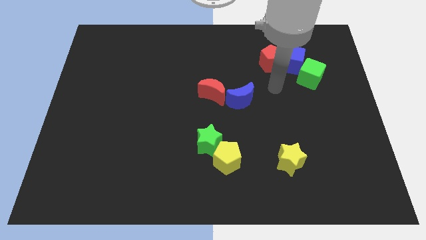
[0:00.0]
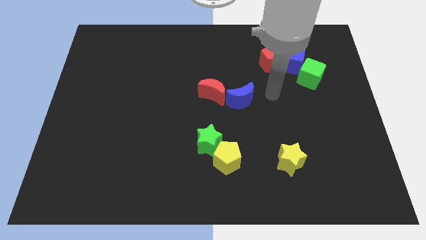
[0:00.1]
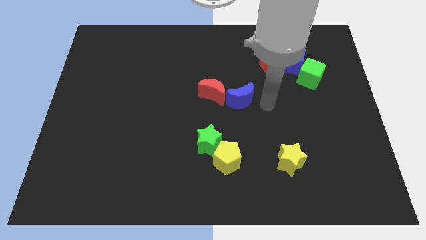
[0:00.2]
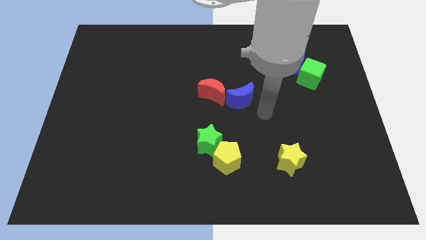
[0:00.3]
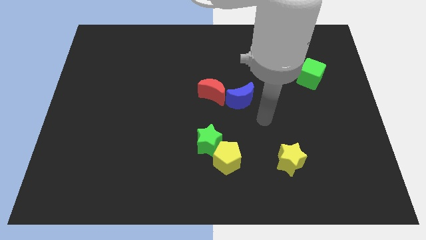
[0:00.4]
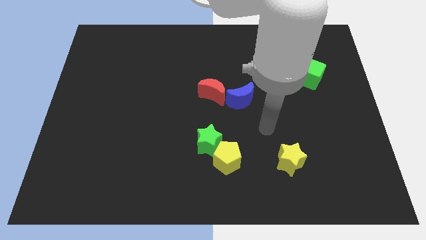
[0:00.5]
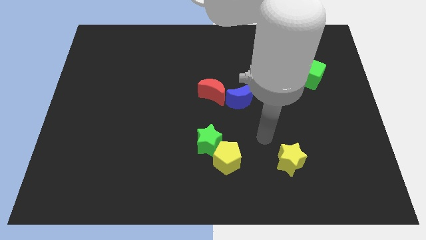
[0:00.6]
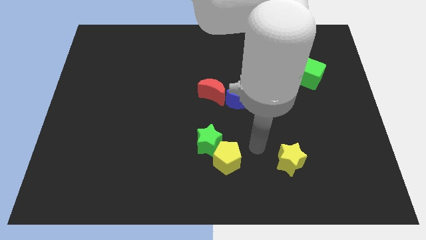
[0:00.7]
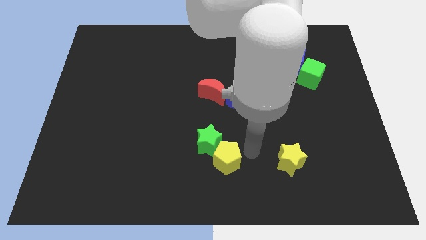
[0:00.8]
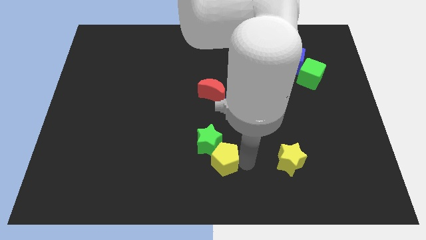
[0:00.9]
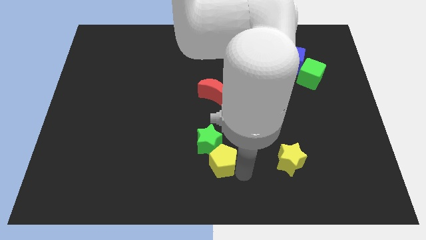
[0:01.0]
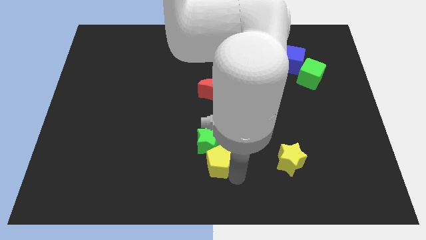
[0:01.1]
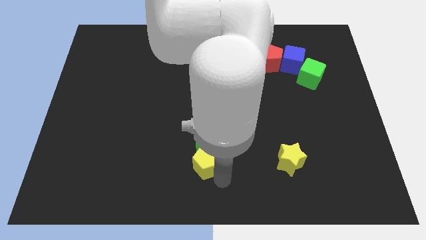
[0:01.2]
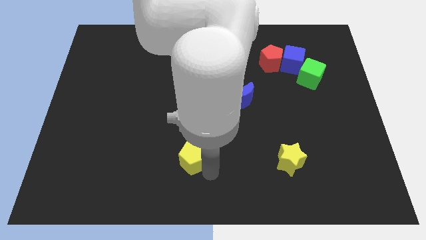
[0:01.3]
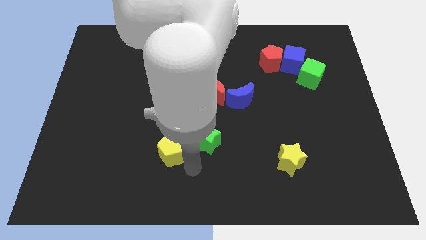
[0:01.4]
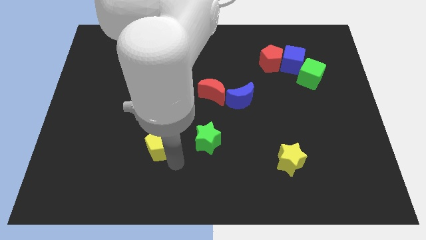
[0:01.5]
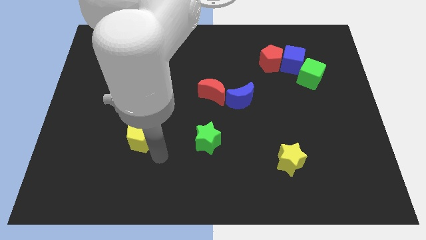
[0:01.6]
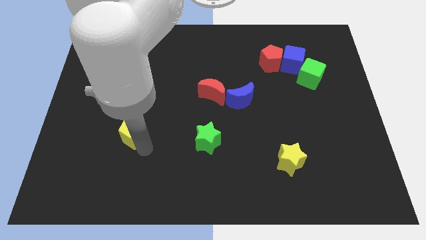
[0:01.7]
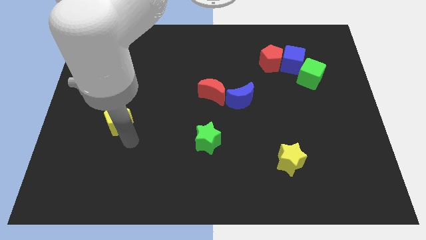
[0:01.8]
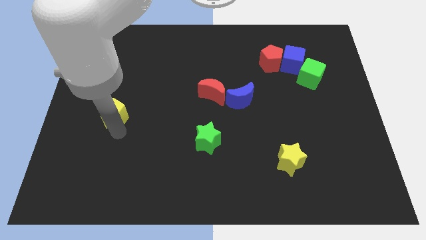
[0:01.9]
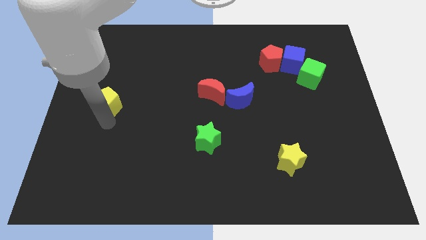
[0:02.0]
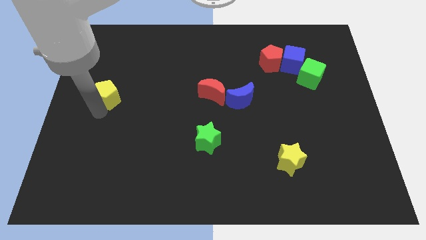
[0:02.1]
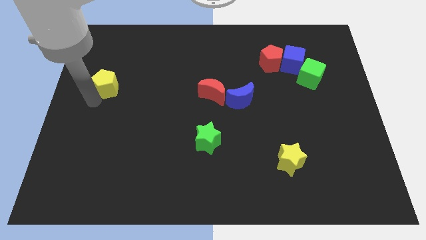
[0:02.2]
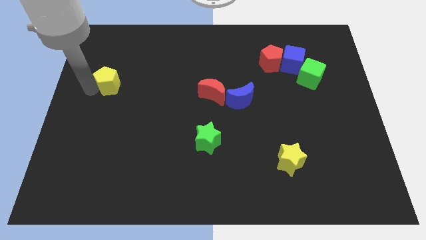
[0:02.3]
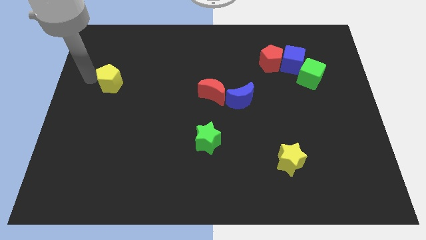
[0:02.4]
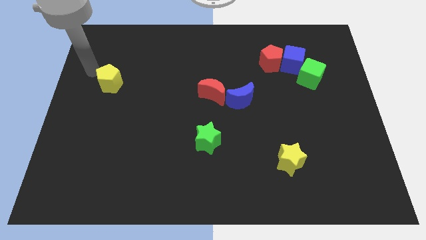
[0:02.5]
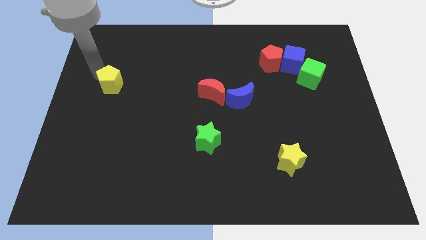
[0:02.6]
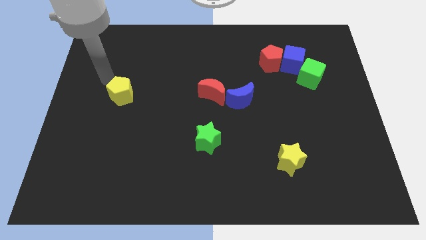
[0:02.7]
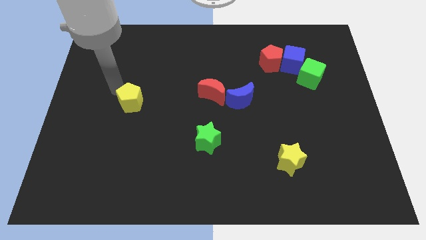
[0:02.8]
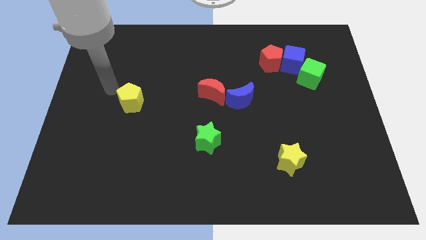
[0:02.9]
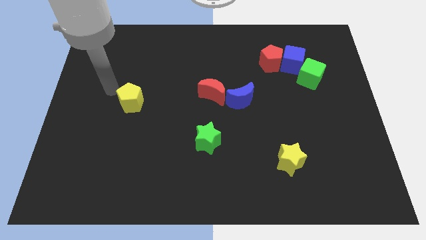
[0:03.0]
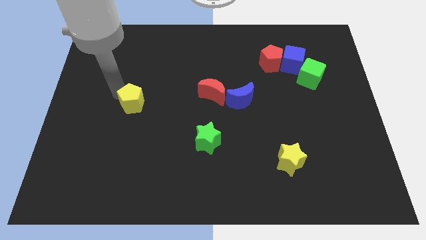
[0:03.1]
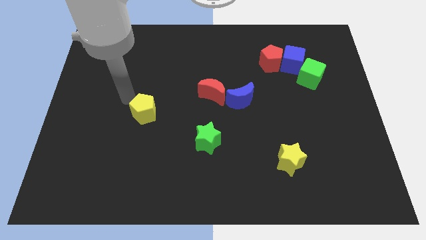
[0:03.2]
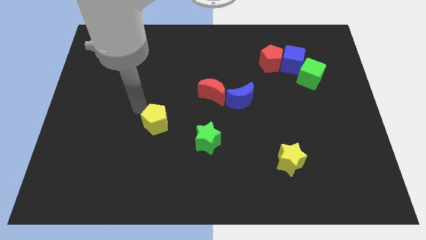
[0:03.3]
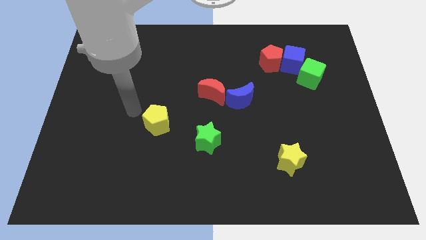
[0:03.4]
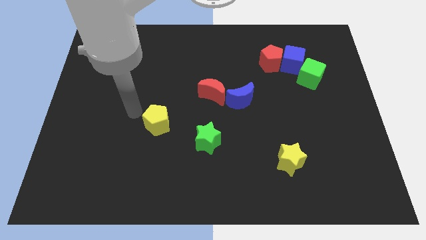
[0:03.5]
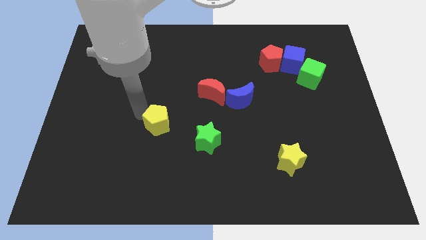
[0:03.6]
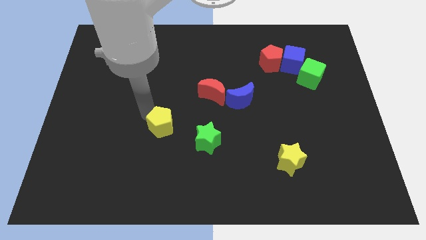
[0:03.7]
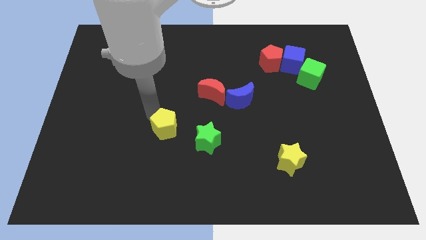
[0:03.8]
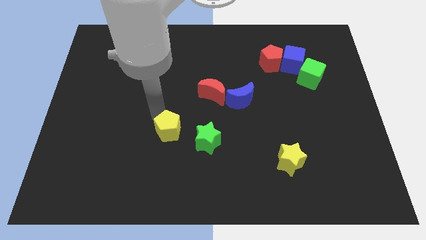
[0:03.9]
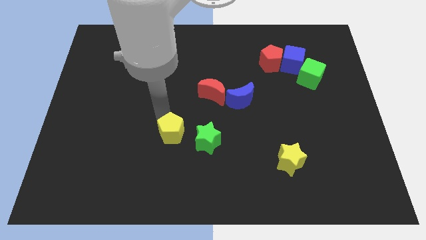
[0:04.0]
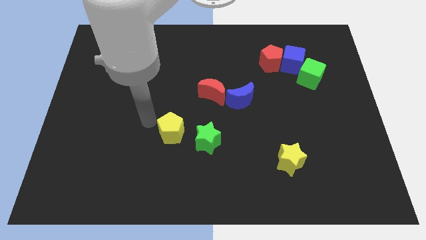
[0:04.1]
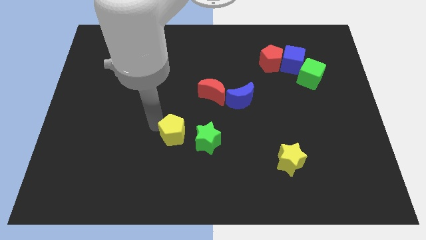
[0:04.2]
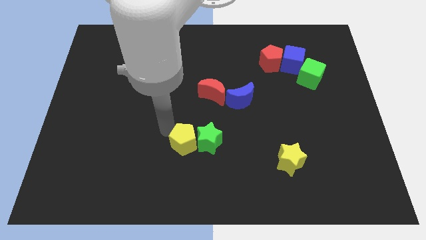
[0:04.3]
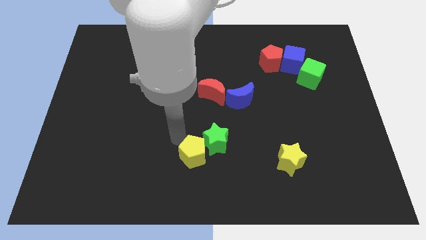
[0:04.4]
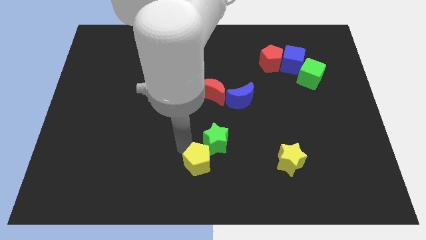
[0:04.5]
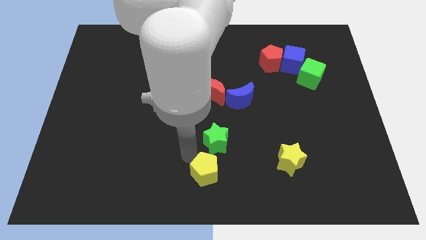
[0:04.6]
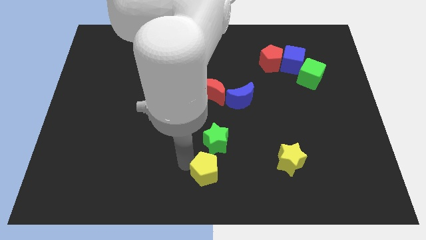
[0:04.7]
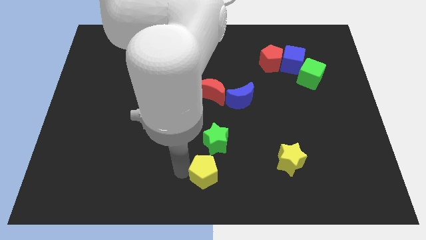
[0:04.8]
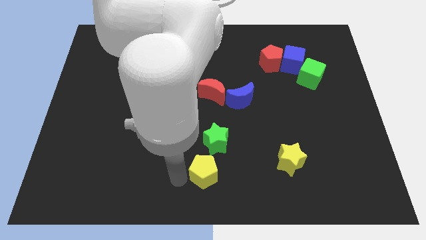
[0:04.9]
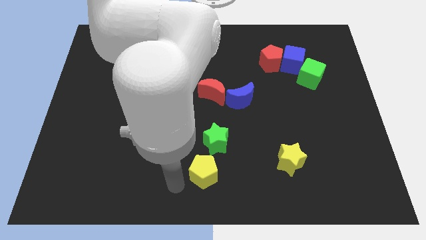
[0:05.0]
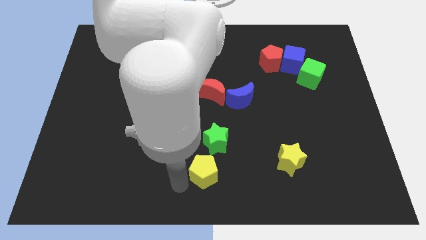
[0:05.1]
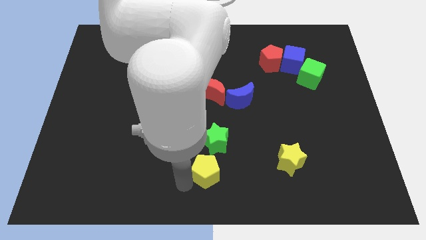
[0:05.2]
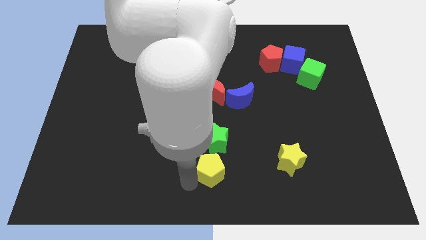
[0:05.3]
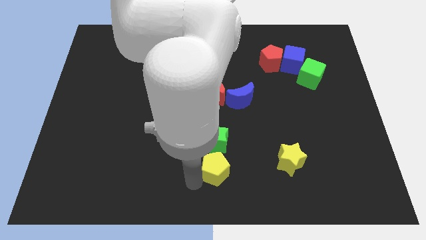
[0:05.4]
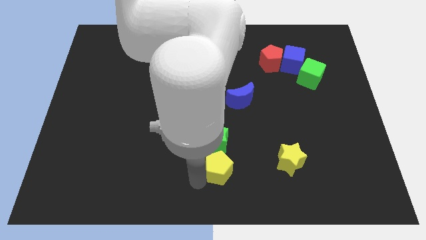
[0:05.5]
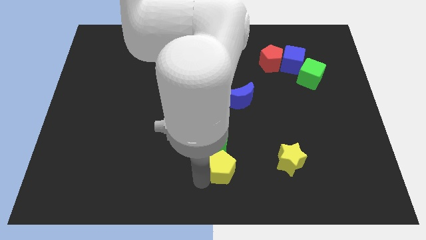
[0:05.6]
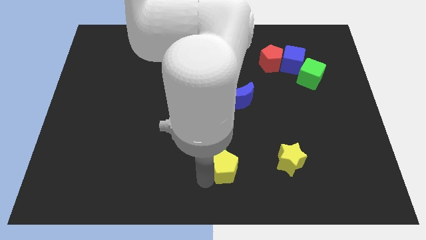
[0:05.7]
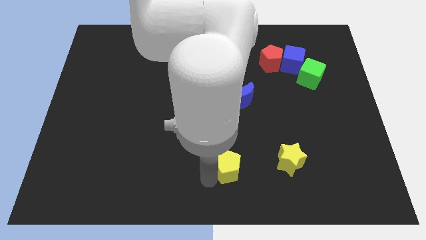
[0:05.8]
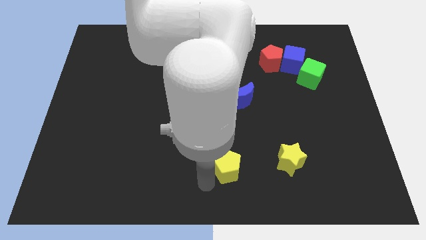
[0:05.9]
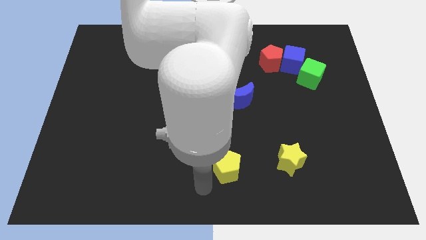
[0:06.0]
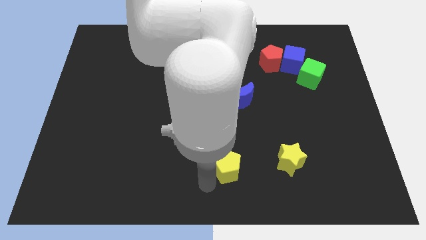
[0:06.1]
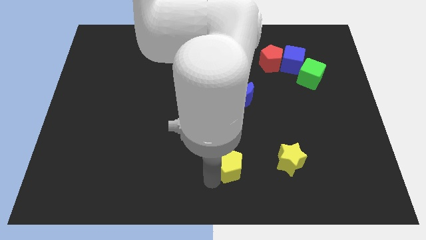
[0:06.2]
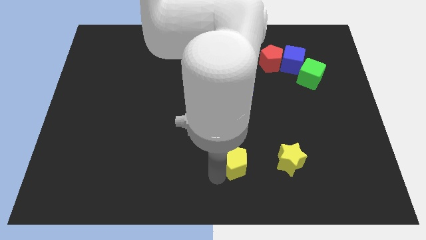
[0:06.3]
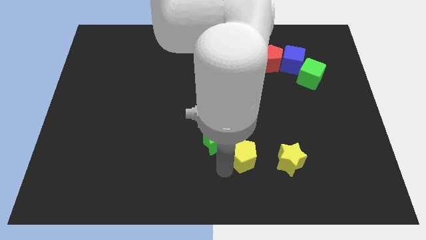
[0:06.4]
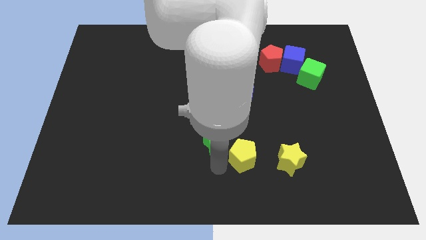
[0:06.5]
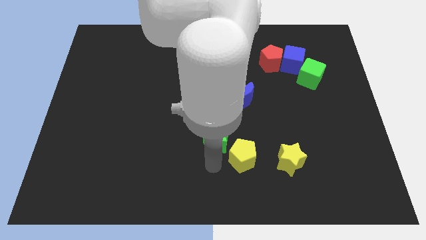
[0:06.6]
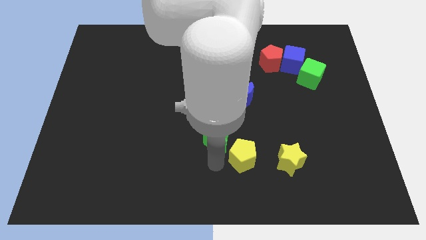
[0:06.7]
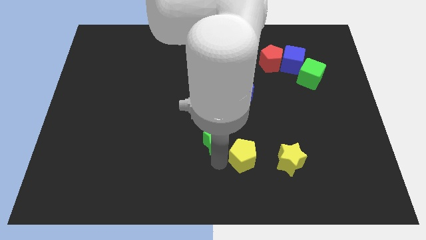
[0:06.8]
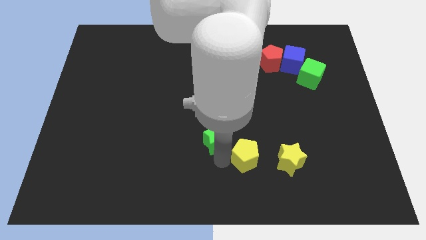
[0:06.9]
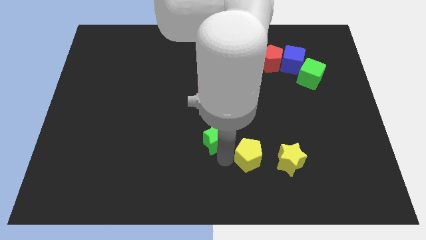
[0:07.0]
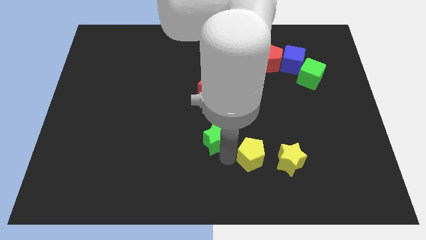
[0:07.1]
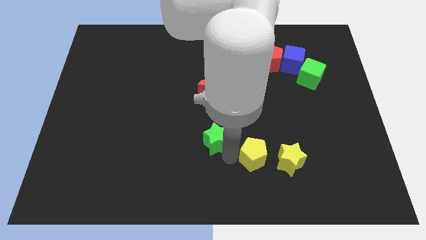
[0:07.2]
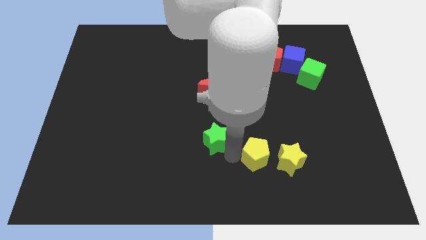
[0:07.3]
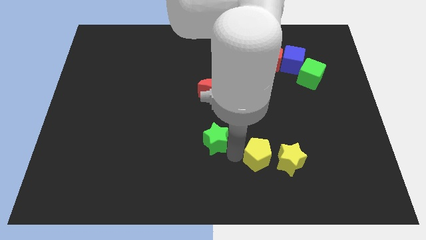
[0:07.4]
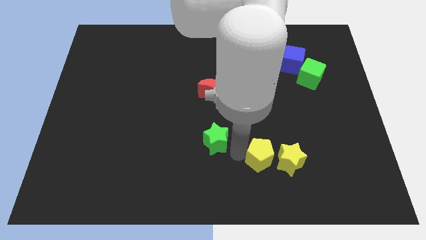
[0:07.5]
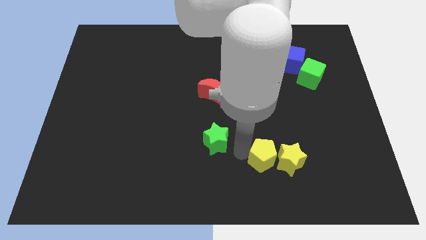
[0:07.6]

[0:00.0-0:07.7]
slightly move the yellow pentagon right

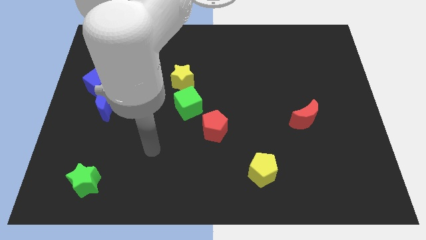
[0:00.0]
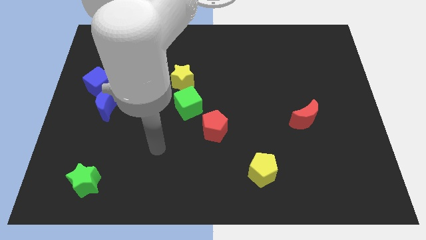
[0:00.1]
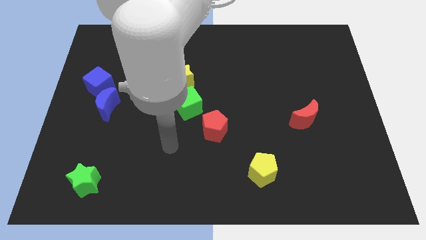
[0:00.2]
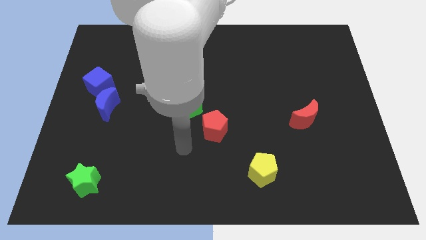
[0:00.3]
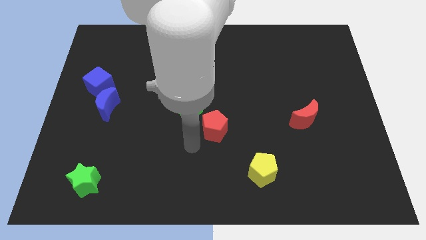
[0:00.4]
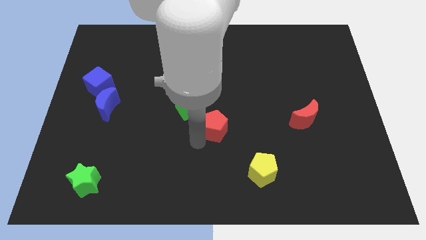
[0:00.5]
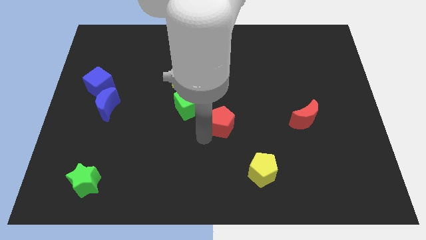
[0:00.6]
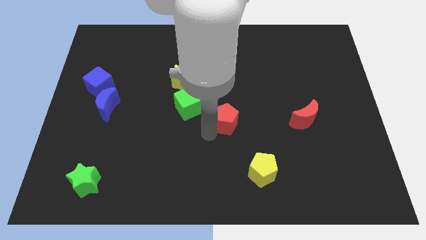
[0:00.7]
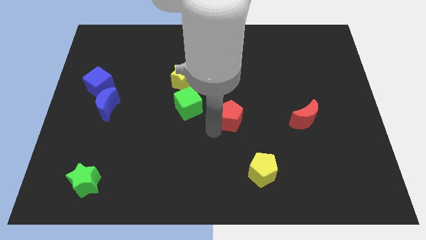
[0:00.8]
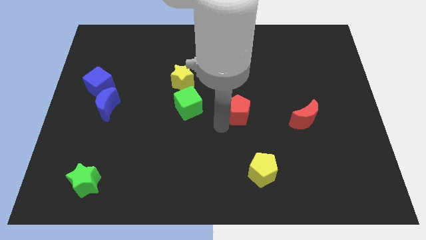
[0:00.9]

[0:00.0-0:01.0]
move the red pentagon upwards and to the right a bit
